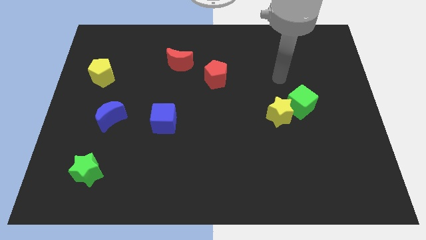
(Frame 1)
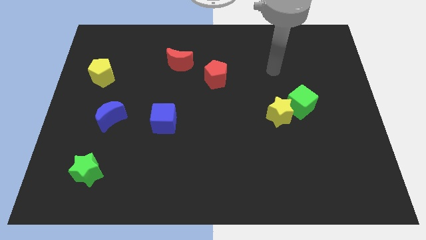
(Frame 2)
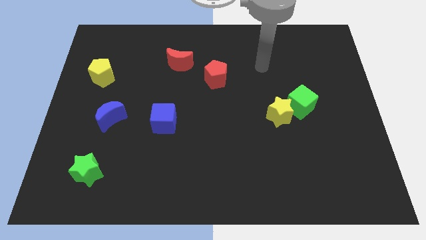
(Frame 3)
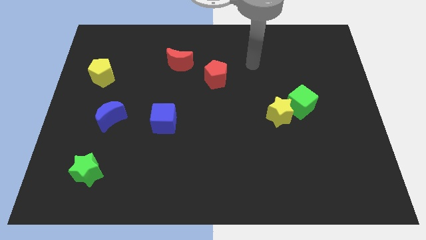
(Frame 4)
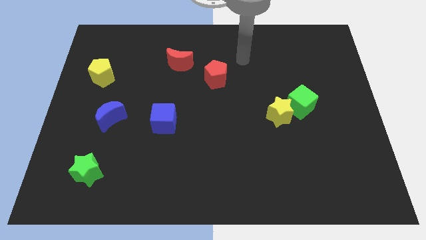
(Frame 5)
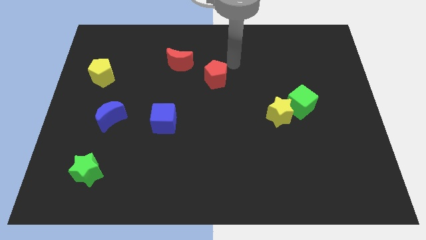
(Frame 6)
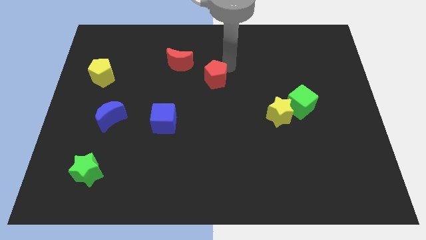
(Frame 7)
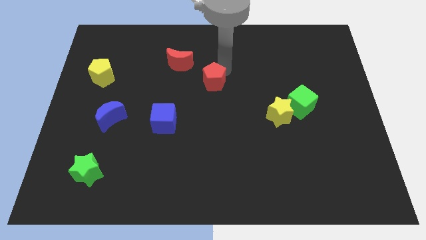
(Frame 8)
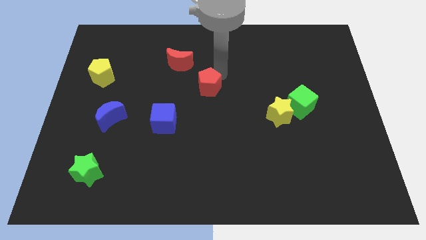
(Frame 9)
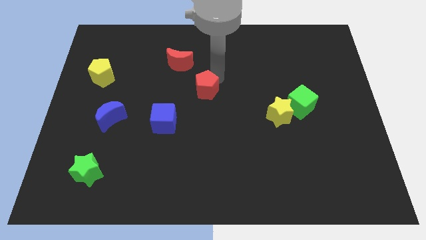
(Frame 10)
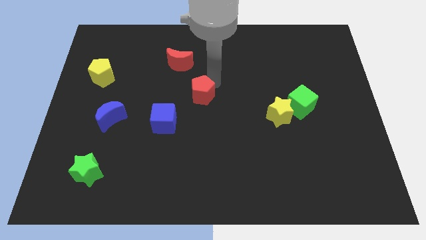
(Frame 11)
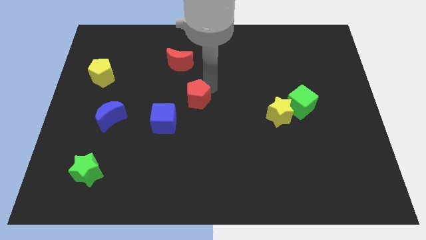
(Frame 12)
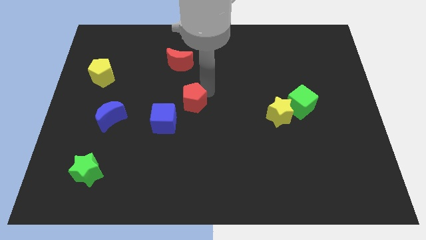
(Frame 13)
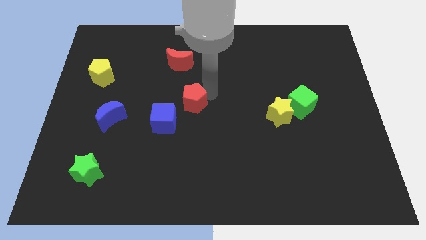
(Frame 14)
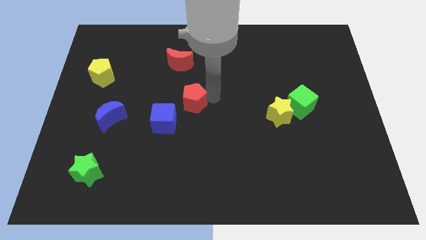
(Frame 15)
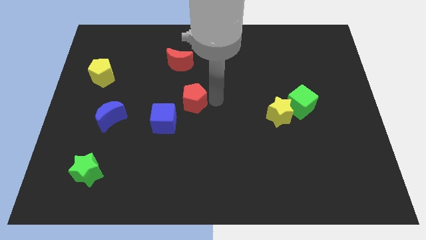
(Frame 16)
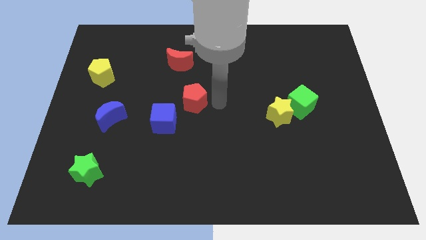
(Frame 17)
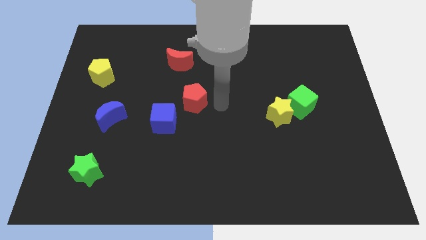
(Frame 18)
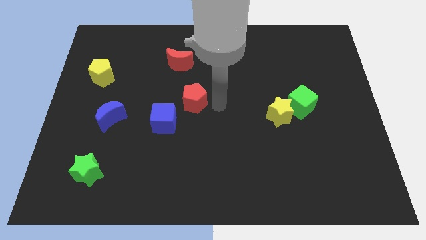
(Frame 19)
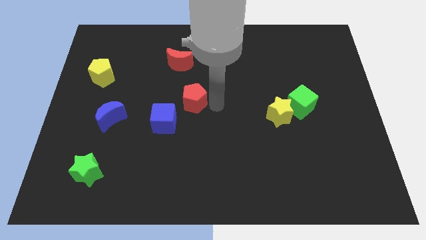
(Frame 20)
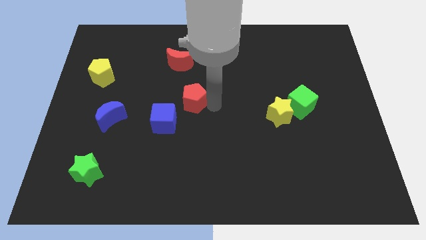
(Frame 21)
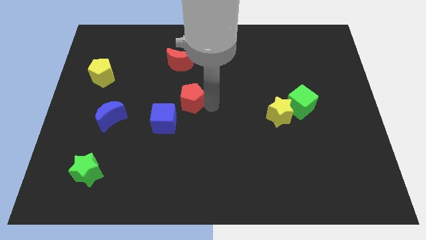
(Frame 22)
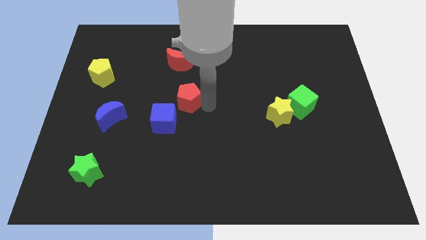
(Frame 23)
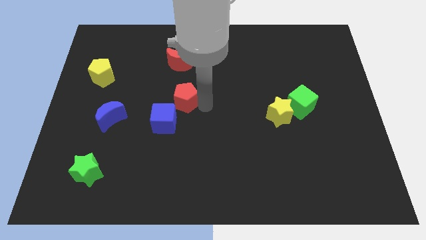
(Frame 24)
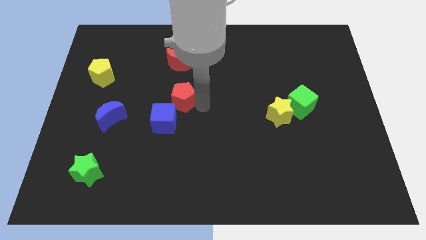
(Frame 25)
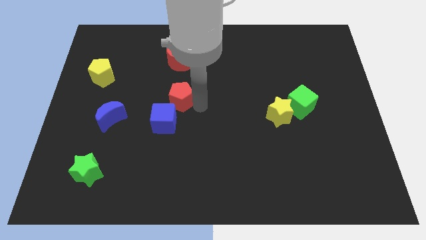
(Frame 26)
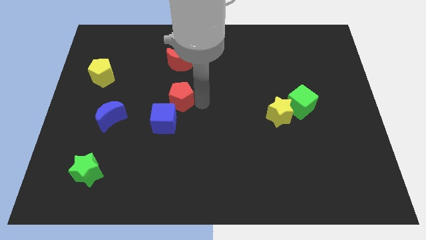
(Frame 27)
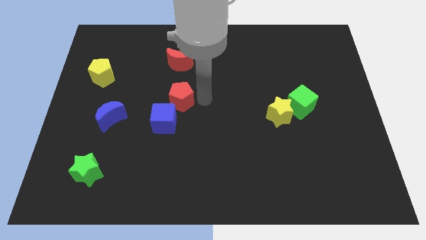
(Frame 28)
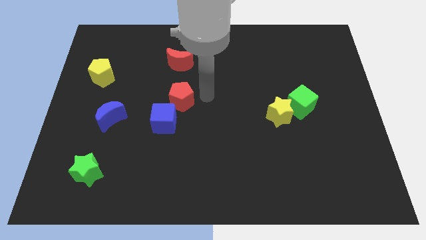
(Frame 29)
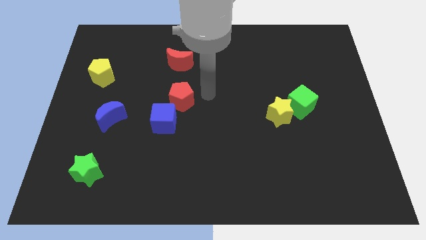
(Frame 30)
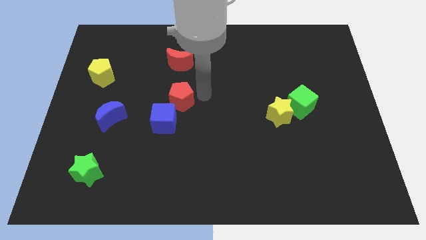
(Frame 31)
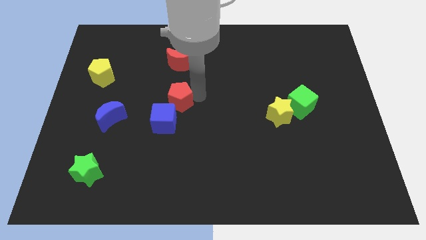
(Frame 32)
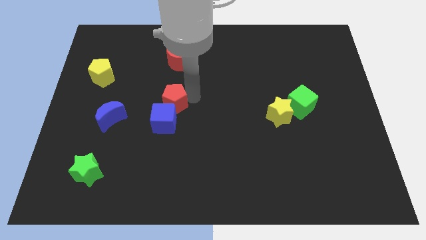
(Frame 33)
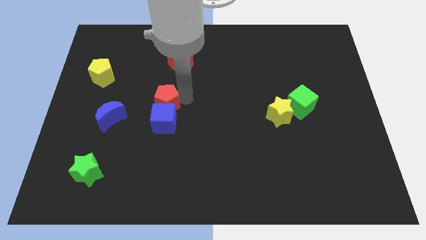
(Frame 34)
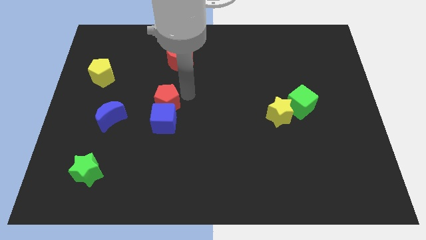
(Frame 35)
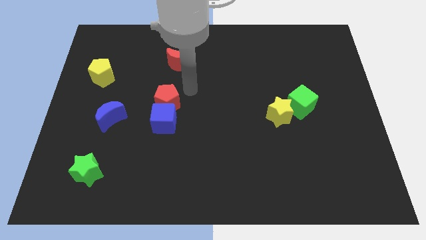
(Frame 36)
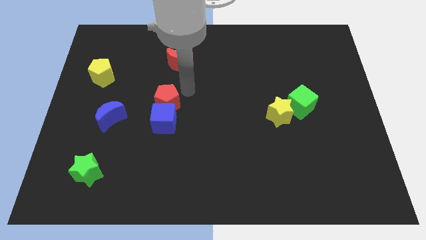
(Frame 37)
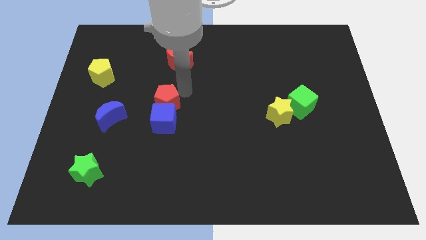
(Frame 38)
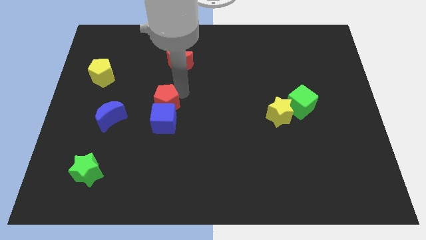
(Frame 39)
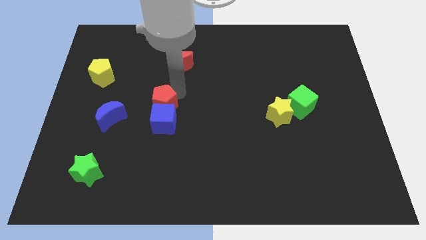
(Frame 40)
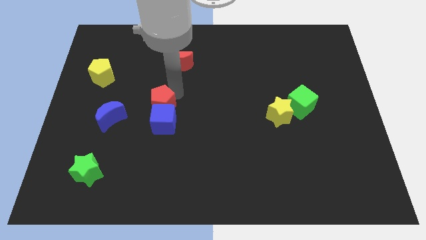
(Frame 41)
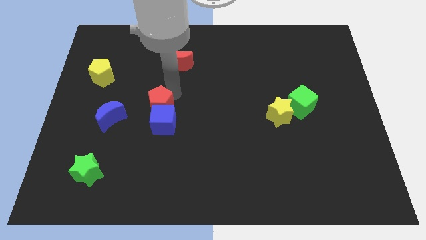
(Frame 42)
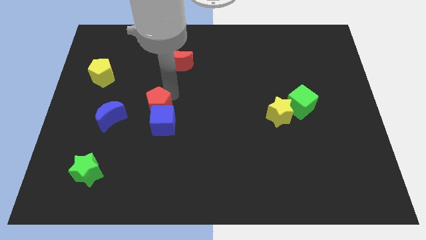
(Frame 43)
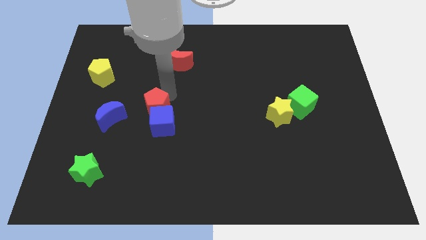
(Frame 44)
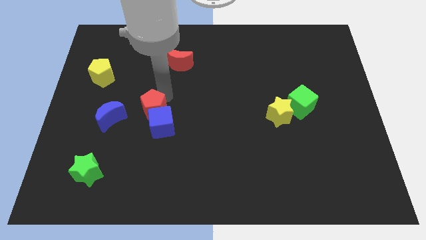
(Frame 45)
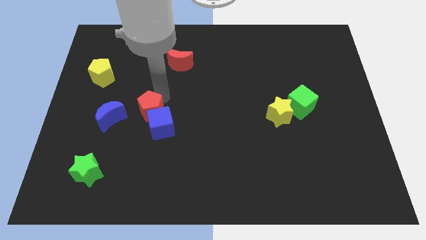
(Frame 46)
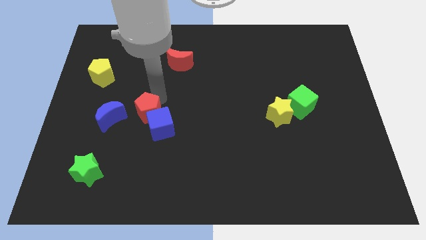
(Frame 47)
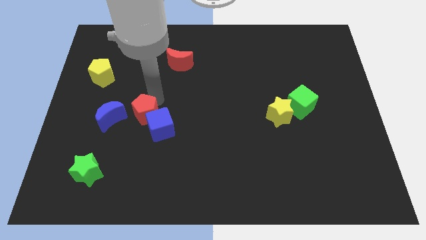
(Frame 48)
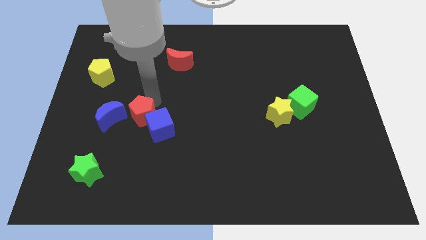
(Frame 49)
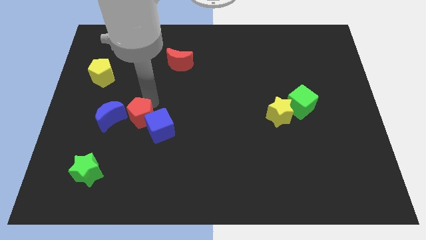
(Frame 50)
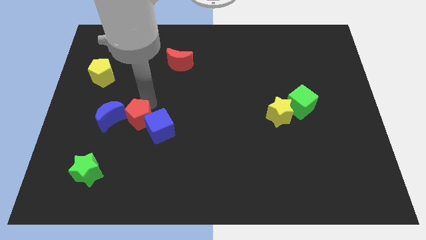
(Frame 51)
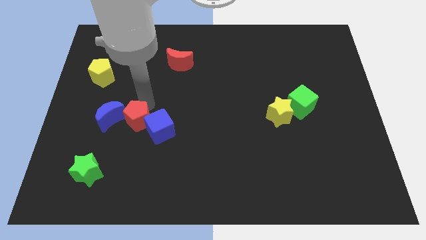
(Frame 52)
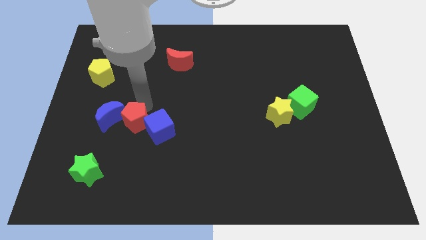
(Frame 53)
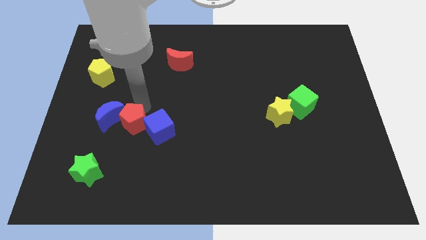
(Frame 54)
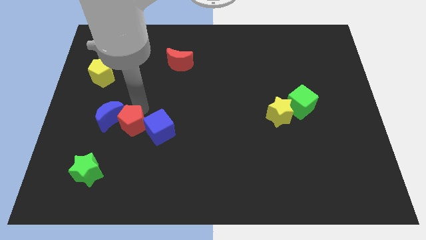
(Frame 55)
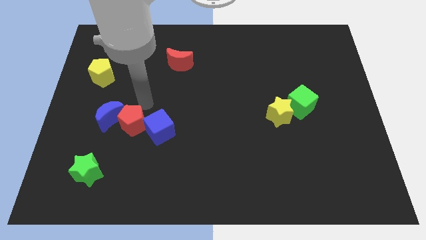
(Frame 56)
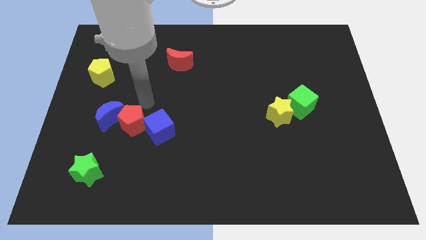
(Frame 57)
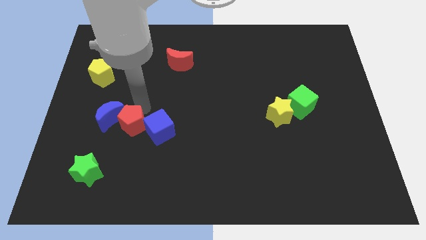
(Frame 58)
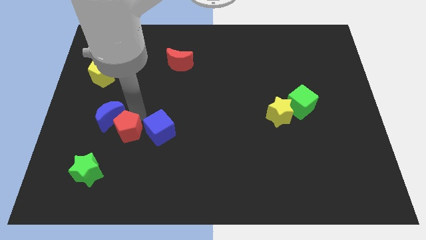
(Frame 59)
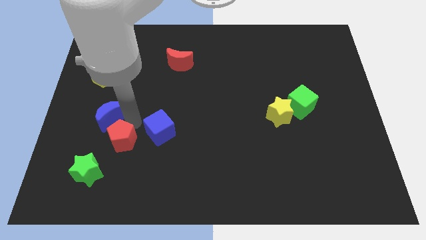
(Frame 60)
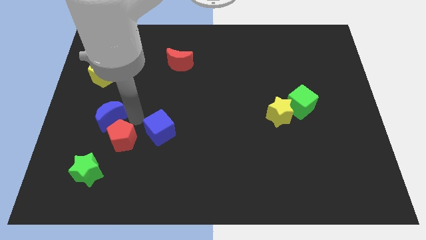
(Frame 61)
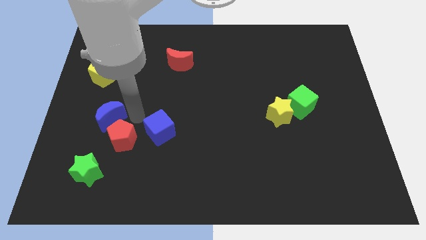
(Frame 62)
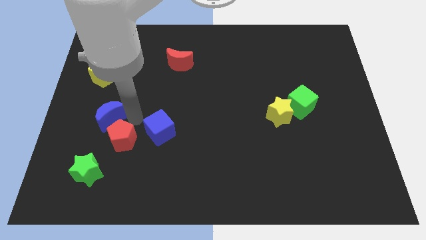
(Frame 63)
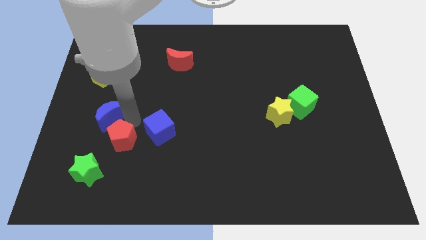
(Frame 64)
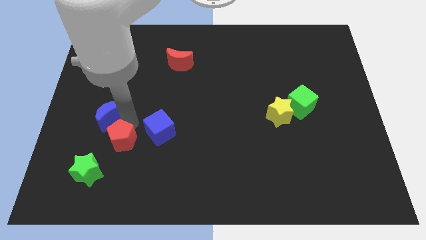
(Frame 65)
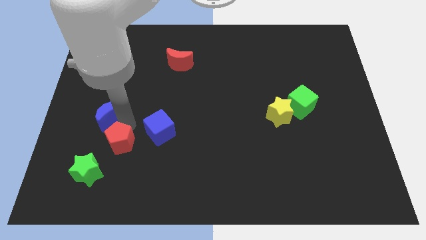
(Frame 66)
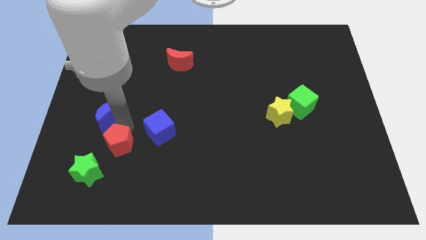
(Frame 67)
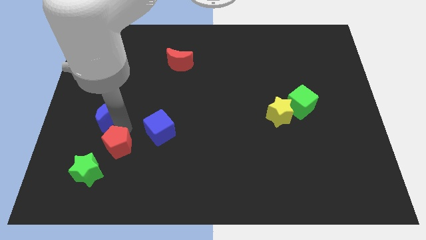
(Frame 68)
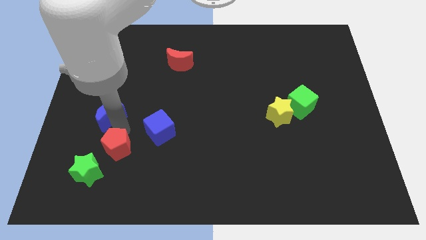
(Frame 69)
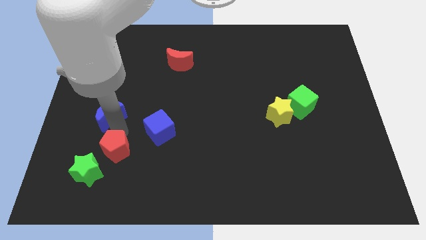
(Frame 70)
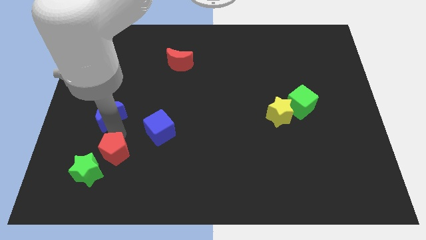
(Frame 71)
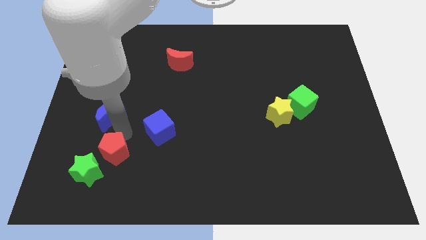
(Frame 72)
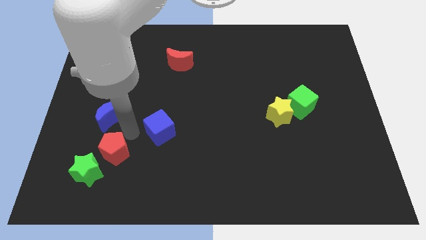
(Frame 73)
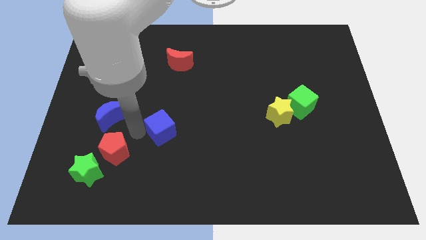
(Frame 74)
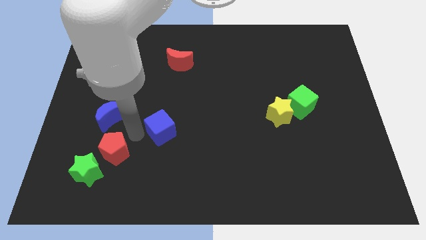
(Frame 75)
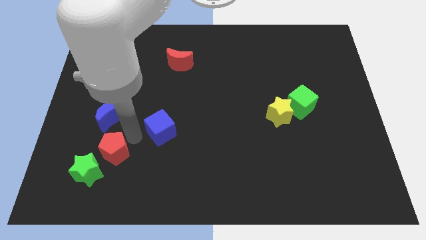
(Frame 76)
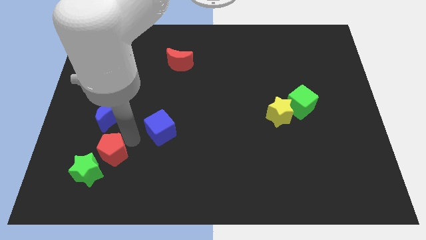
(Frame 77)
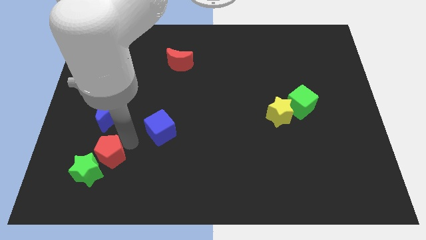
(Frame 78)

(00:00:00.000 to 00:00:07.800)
put the red pentagon close to the green star
